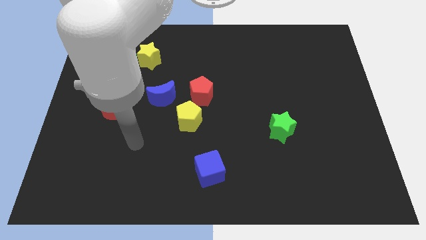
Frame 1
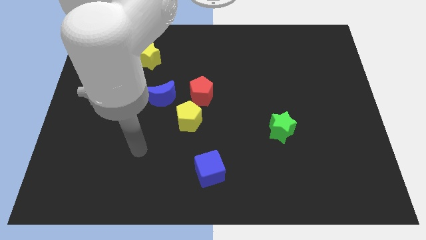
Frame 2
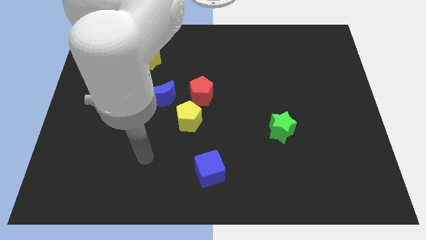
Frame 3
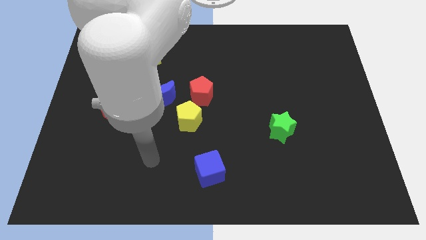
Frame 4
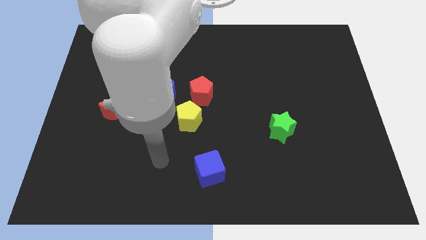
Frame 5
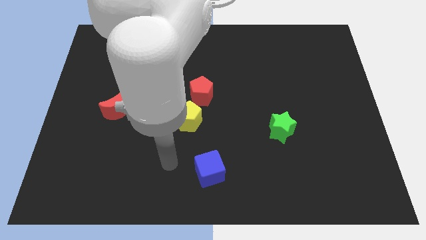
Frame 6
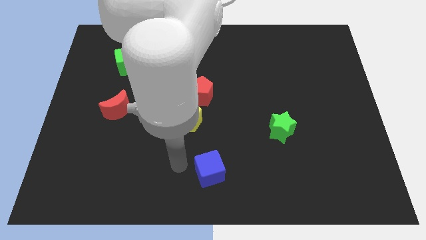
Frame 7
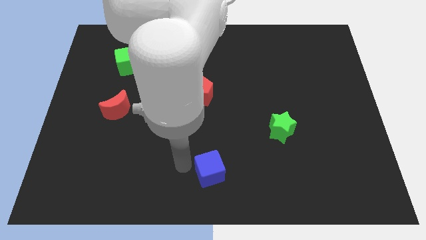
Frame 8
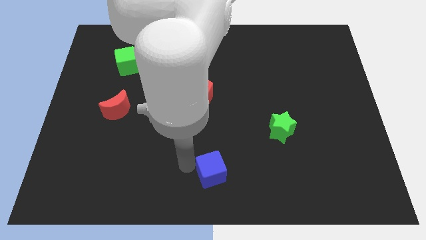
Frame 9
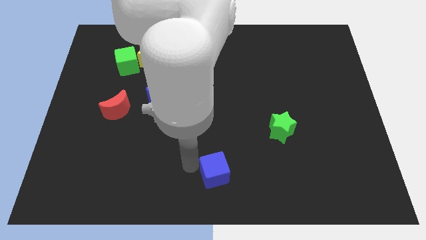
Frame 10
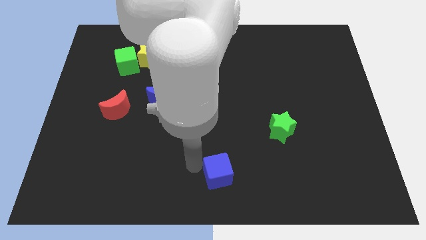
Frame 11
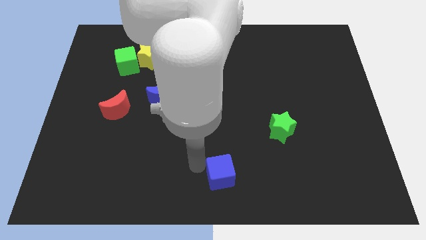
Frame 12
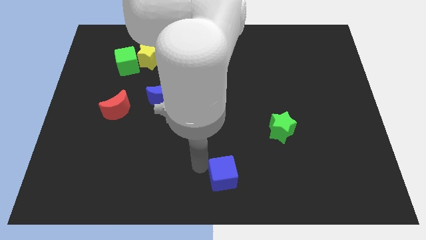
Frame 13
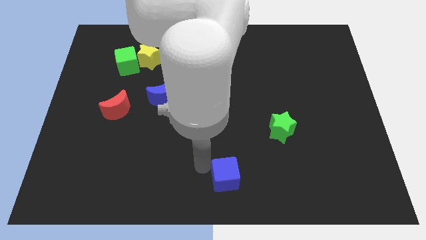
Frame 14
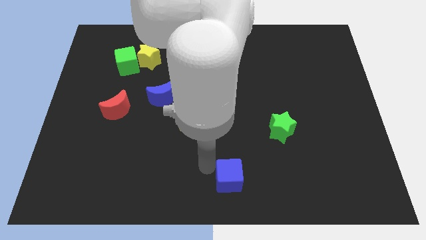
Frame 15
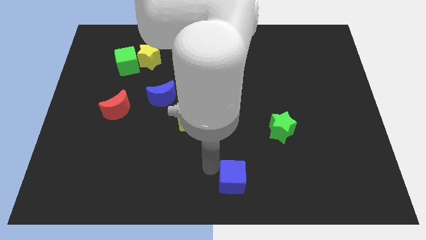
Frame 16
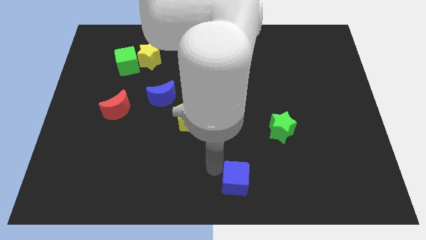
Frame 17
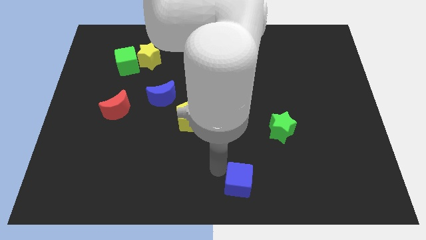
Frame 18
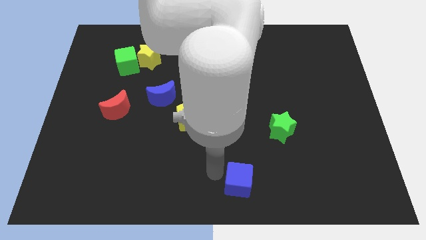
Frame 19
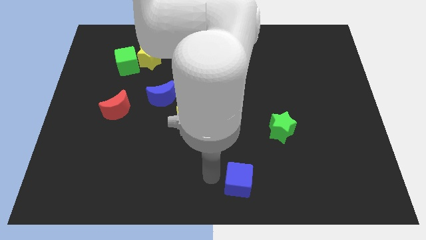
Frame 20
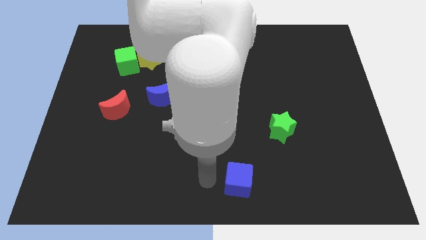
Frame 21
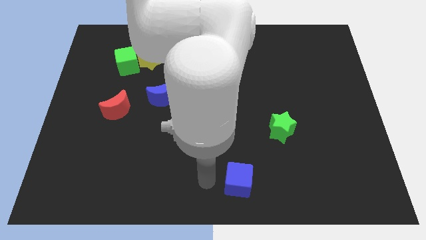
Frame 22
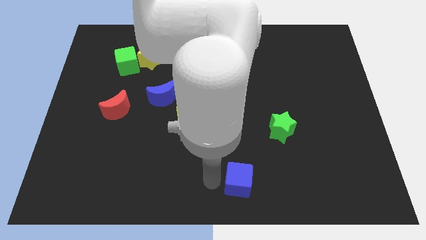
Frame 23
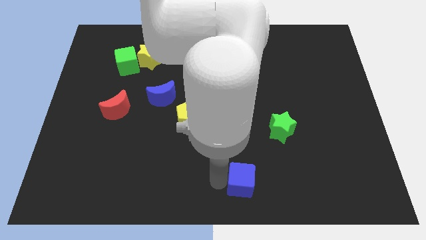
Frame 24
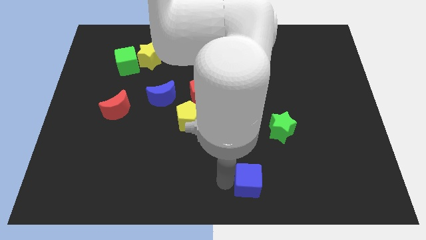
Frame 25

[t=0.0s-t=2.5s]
push the blue cube to the right a little

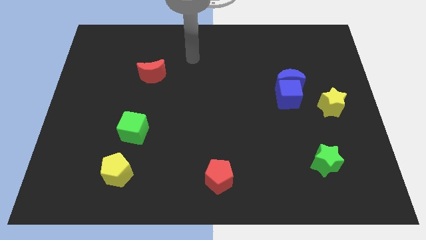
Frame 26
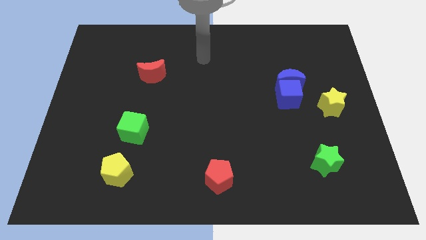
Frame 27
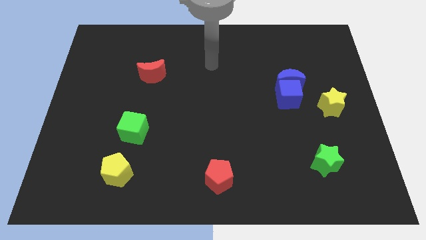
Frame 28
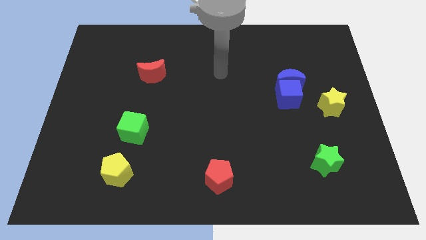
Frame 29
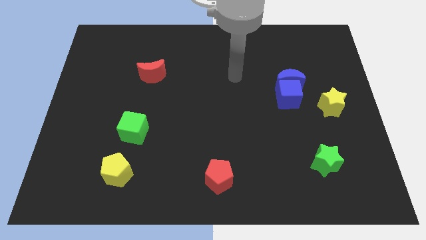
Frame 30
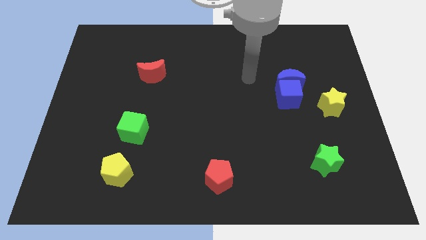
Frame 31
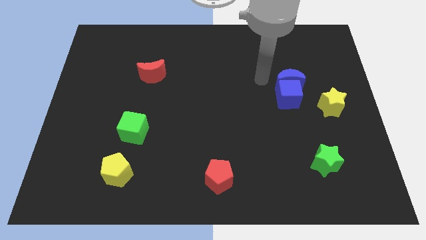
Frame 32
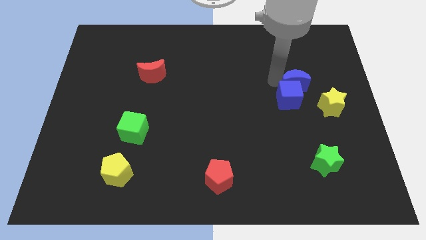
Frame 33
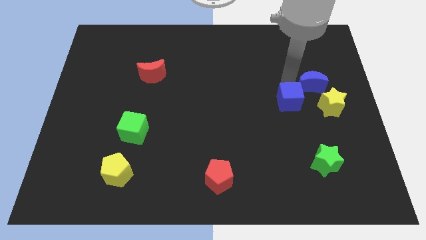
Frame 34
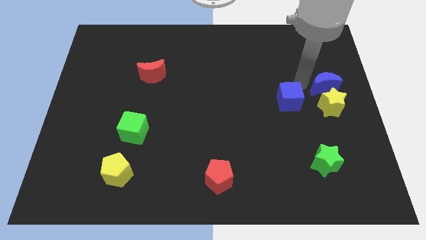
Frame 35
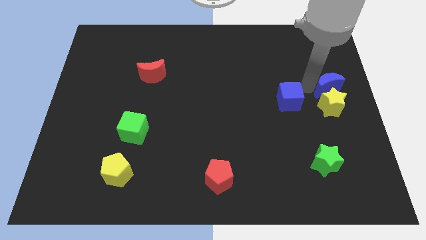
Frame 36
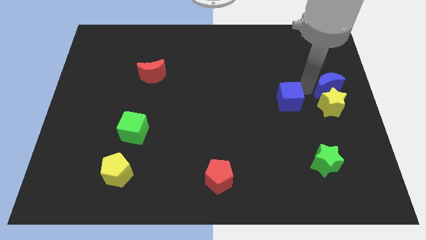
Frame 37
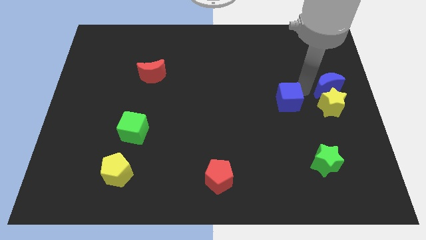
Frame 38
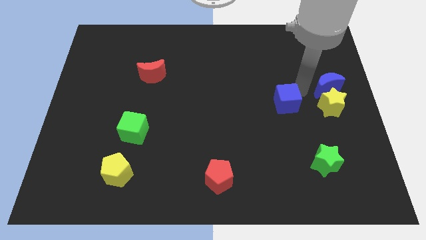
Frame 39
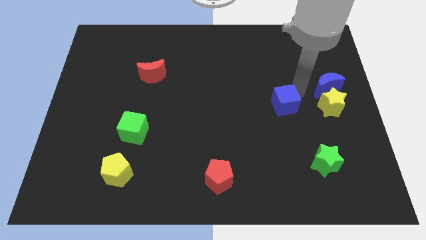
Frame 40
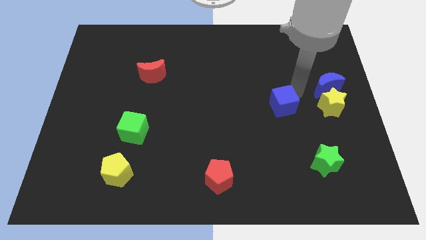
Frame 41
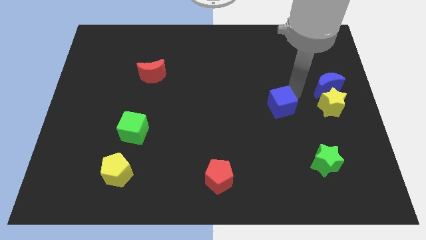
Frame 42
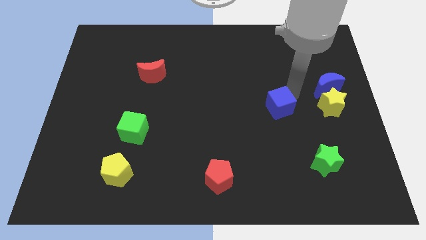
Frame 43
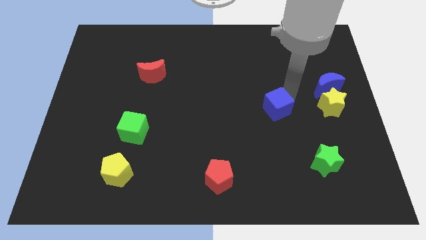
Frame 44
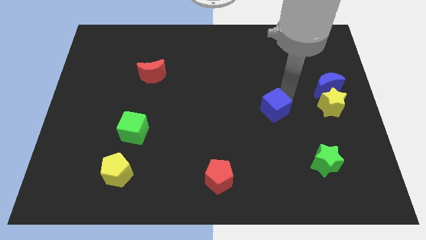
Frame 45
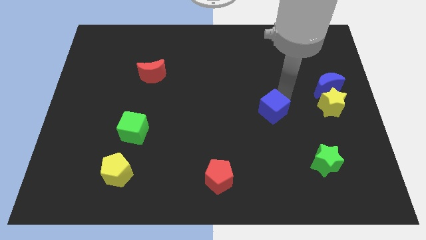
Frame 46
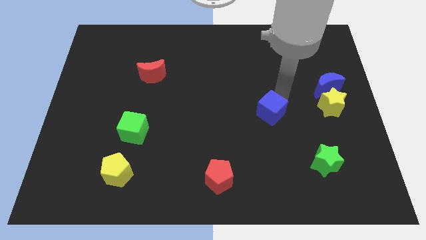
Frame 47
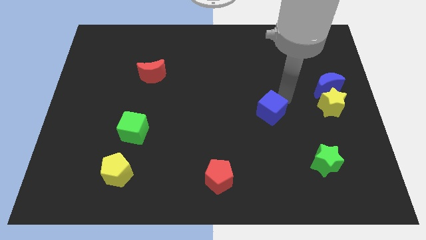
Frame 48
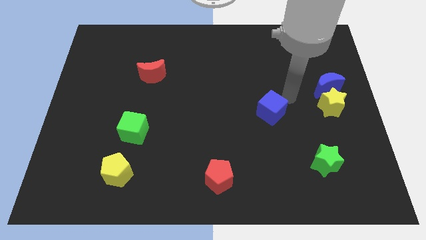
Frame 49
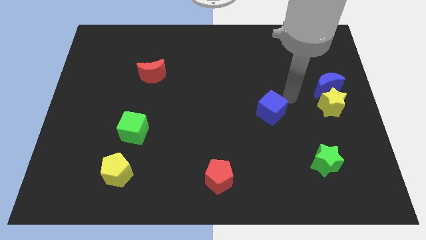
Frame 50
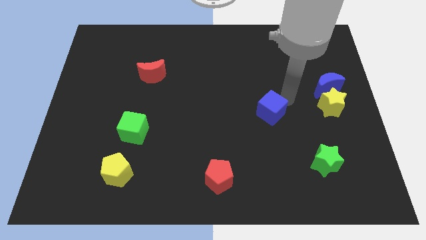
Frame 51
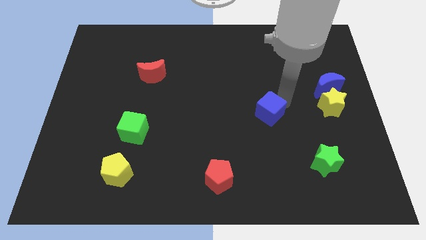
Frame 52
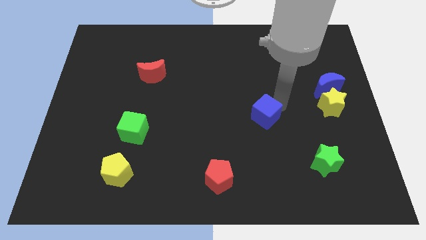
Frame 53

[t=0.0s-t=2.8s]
slide the blue cube down and then to the left a little bit

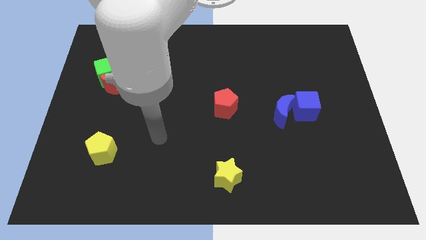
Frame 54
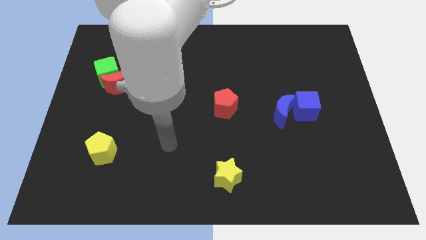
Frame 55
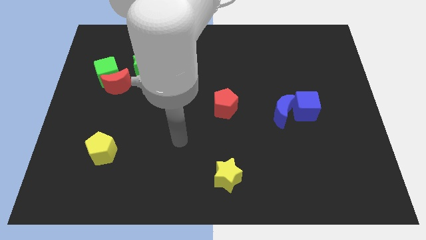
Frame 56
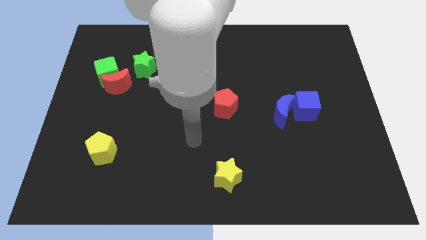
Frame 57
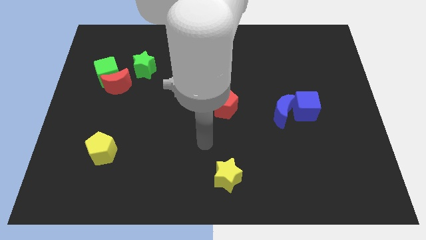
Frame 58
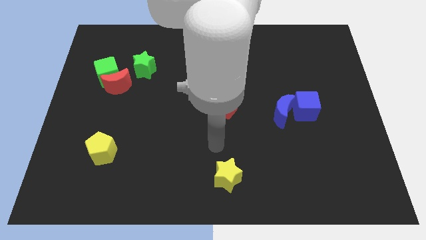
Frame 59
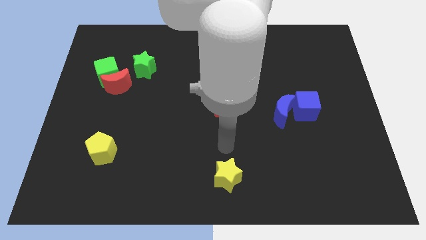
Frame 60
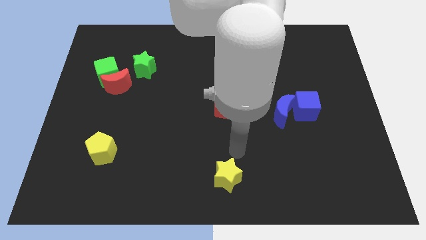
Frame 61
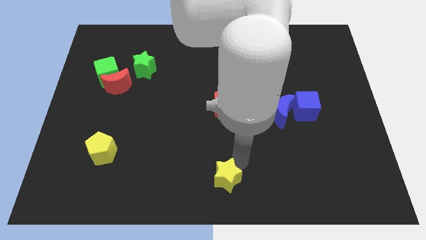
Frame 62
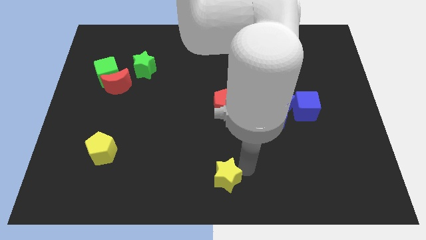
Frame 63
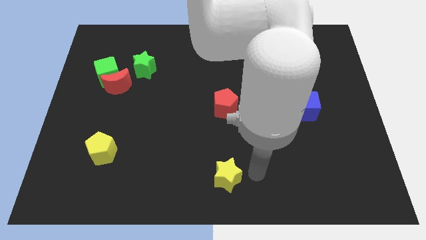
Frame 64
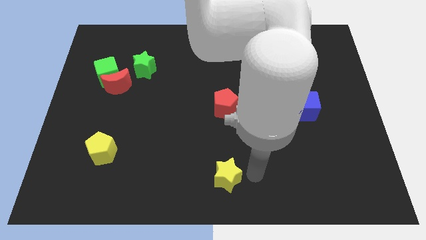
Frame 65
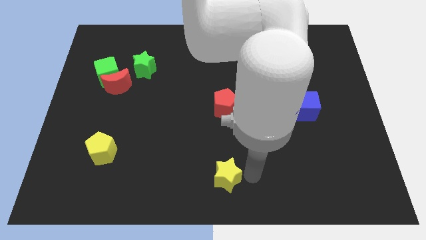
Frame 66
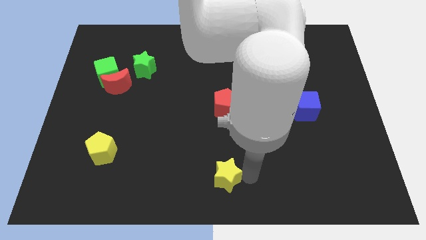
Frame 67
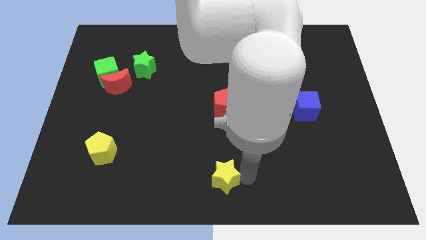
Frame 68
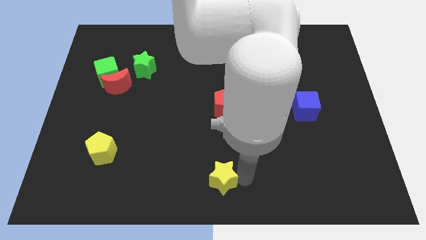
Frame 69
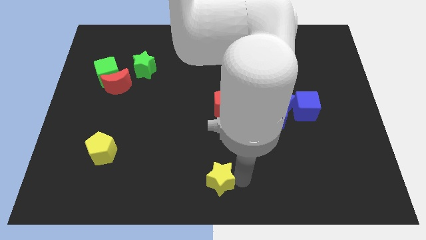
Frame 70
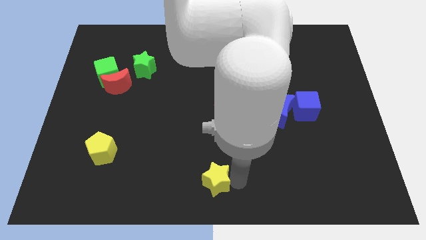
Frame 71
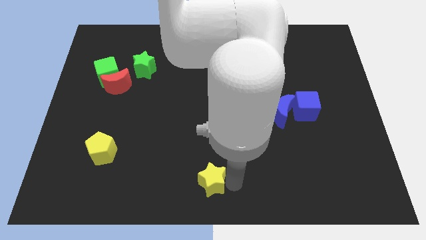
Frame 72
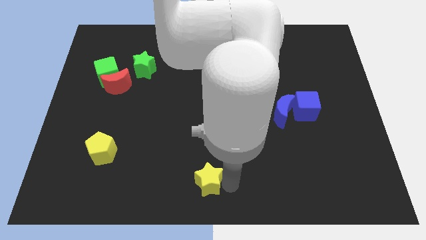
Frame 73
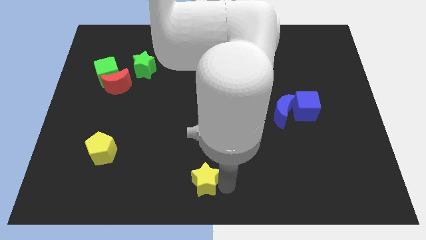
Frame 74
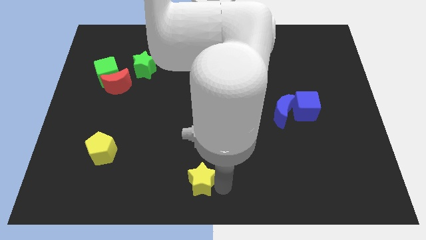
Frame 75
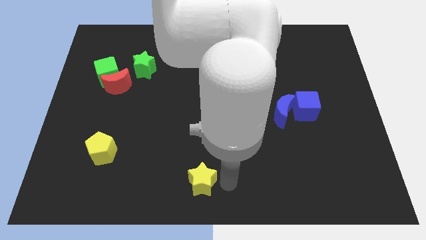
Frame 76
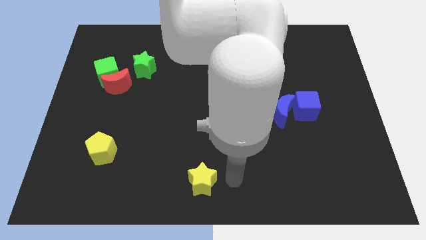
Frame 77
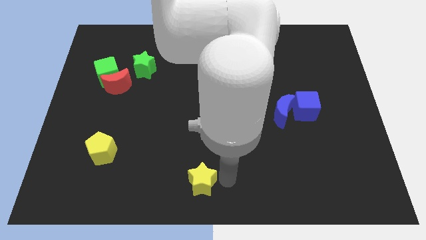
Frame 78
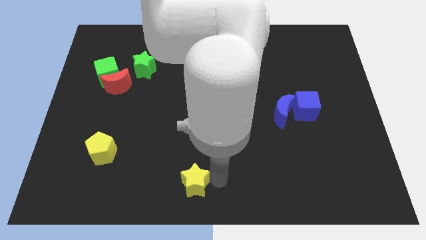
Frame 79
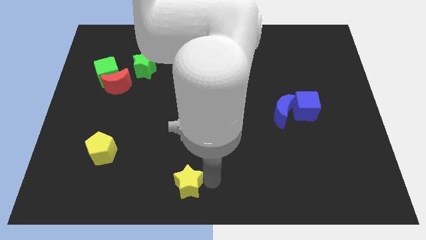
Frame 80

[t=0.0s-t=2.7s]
push the yellow star a bit left
